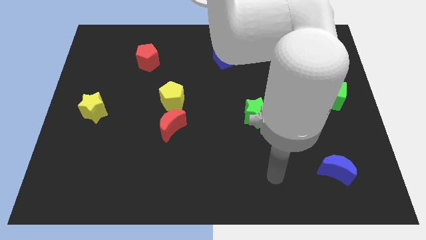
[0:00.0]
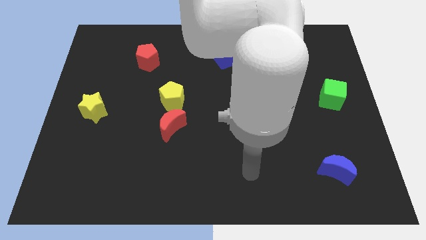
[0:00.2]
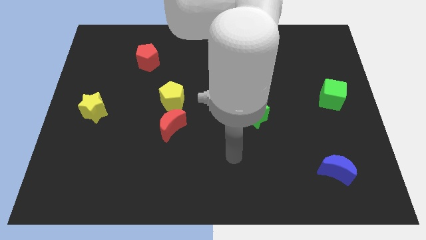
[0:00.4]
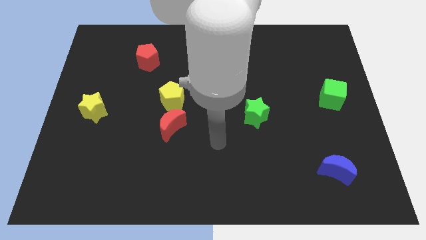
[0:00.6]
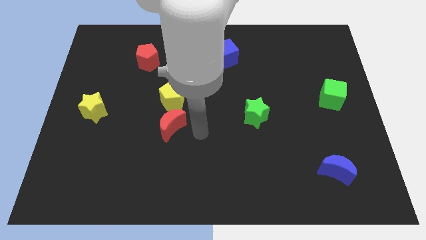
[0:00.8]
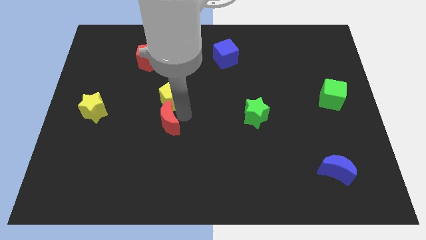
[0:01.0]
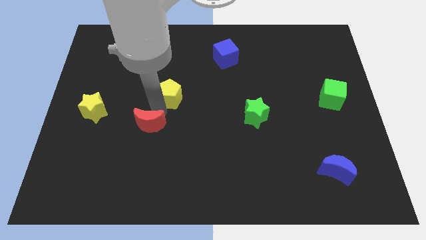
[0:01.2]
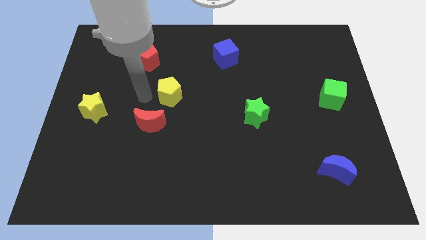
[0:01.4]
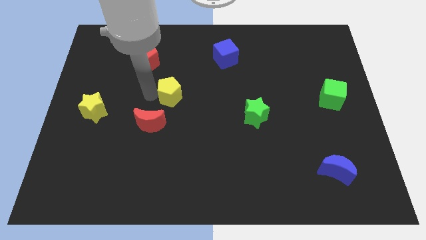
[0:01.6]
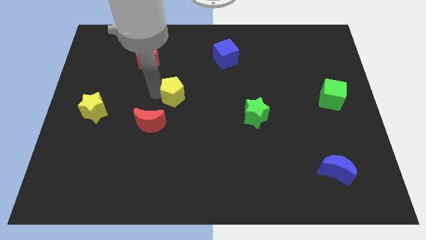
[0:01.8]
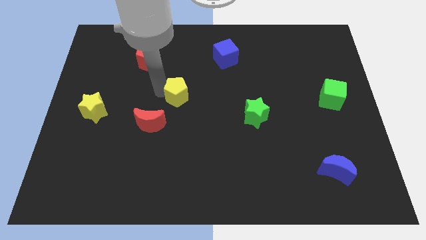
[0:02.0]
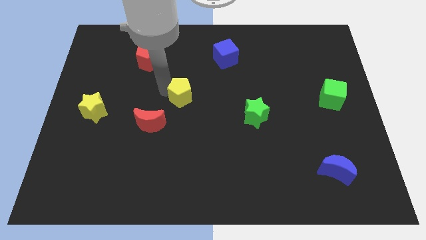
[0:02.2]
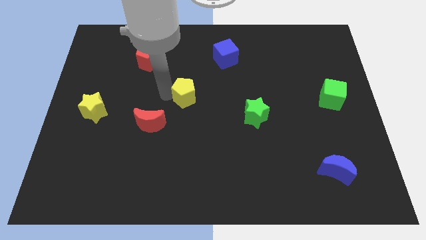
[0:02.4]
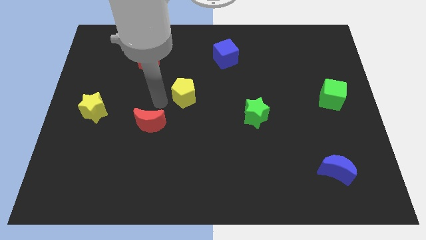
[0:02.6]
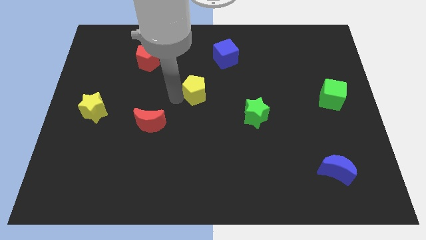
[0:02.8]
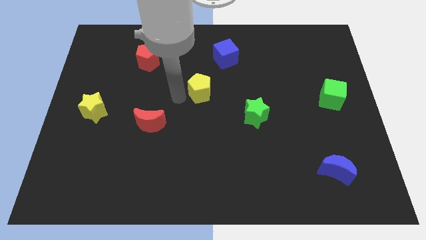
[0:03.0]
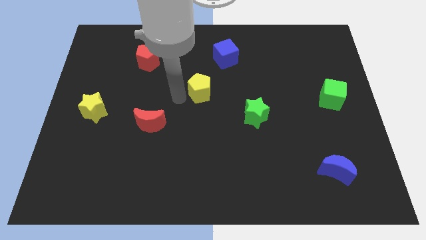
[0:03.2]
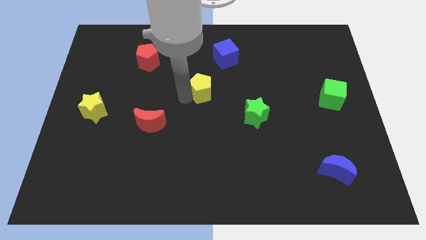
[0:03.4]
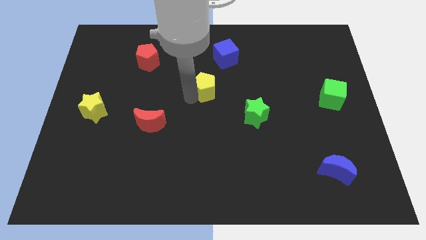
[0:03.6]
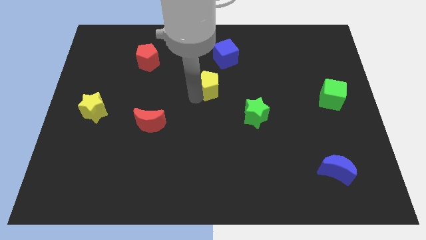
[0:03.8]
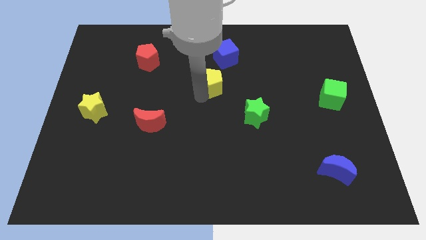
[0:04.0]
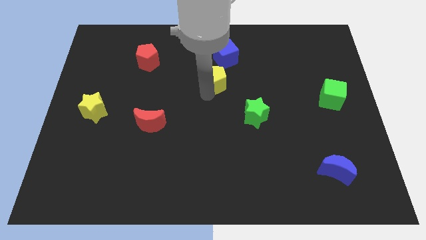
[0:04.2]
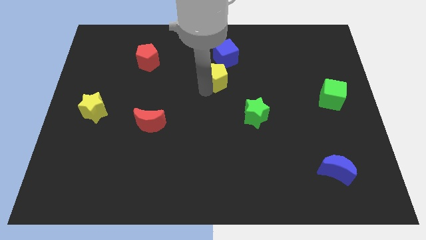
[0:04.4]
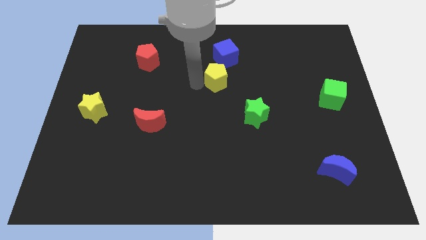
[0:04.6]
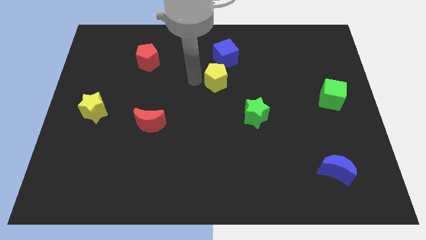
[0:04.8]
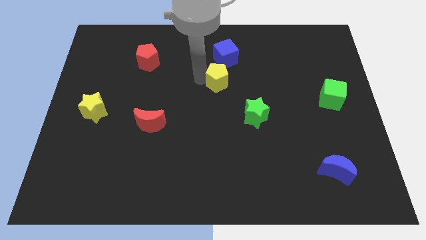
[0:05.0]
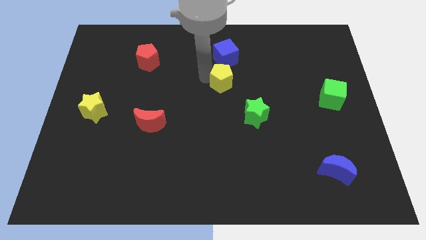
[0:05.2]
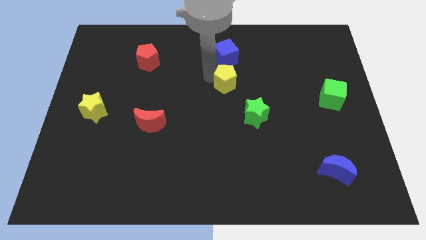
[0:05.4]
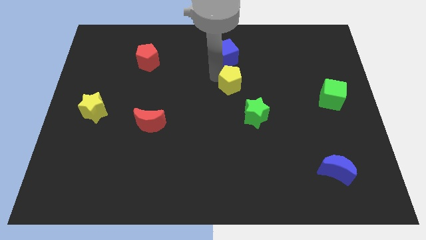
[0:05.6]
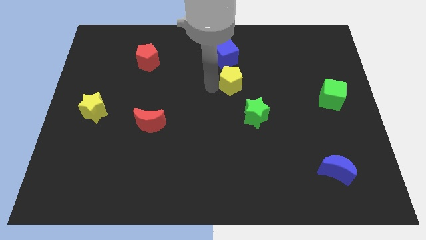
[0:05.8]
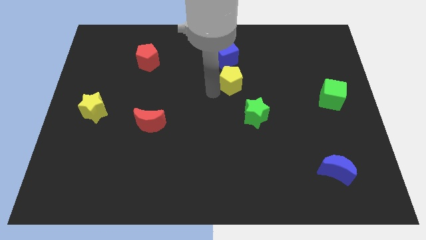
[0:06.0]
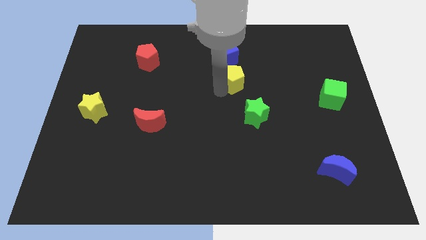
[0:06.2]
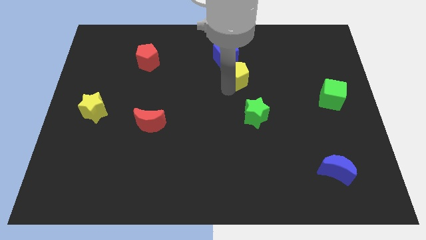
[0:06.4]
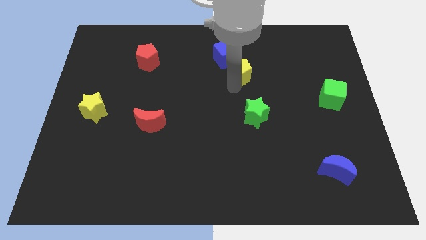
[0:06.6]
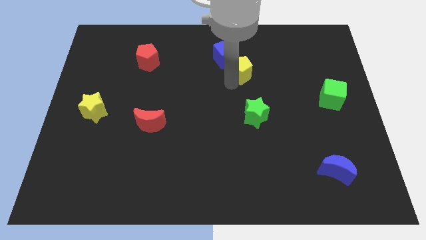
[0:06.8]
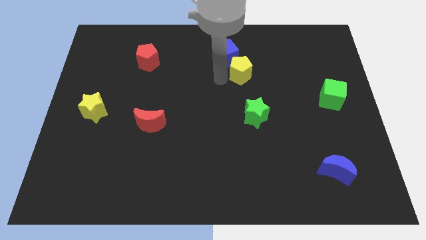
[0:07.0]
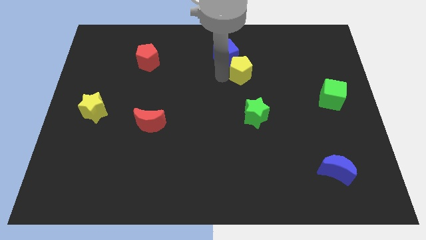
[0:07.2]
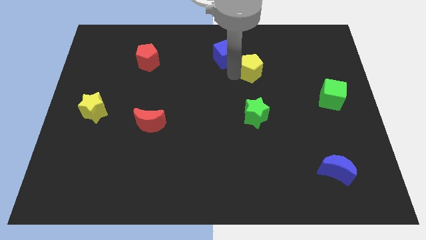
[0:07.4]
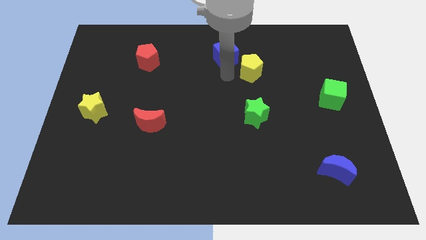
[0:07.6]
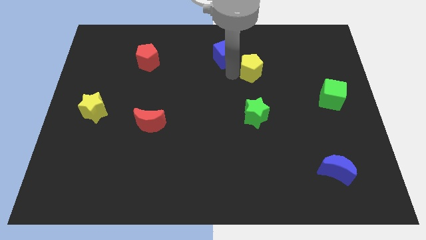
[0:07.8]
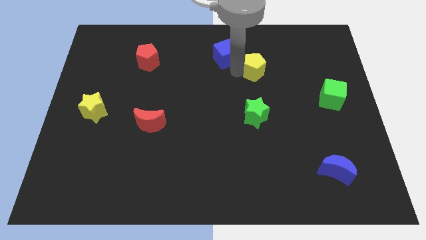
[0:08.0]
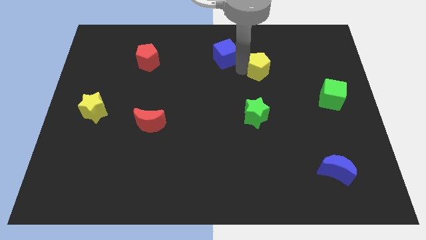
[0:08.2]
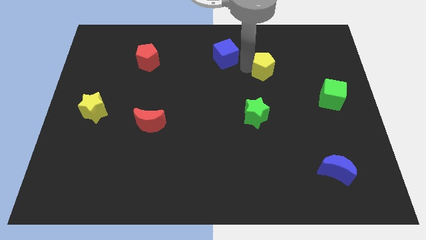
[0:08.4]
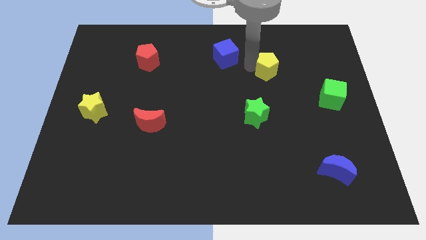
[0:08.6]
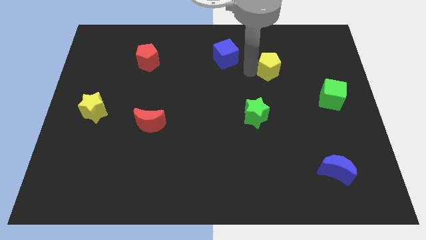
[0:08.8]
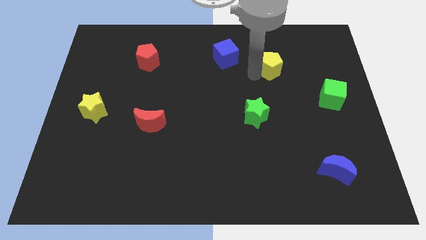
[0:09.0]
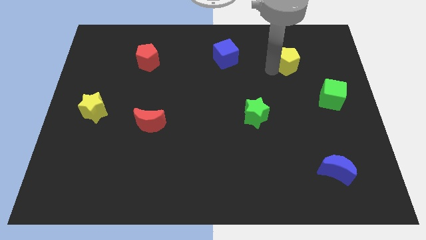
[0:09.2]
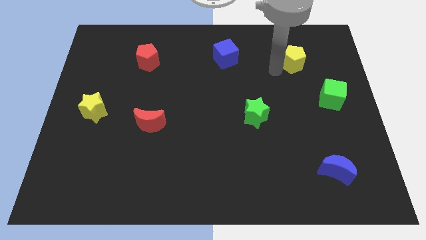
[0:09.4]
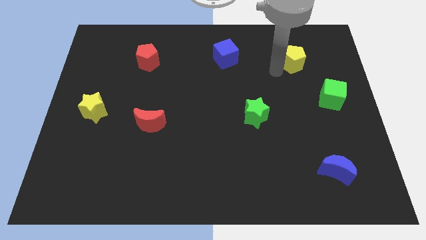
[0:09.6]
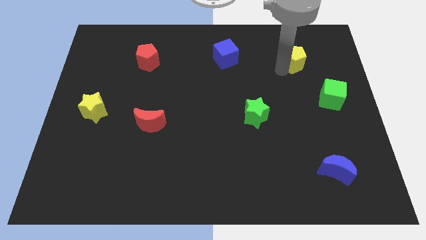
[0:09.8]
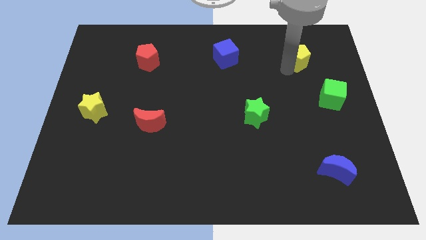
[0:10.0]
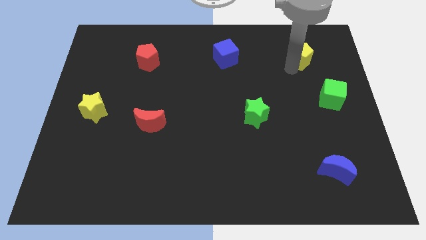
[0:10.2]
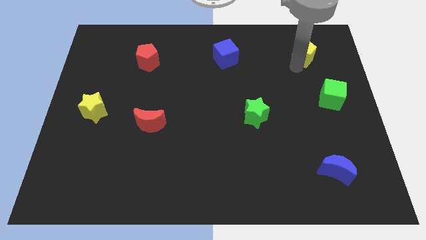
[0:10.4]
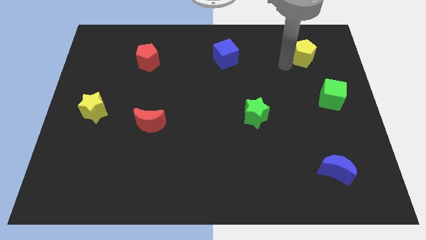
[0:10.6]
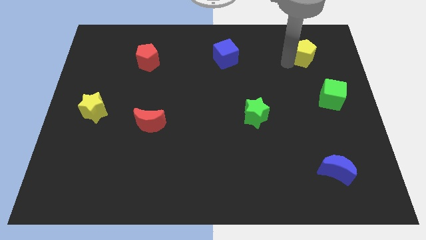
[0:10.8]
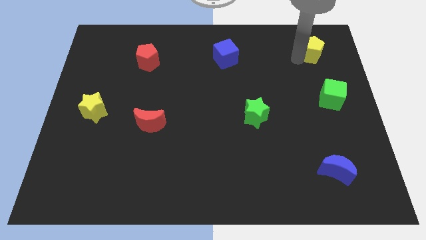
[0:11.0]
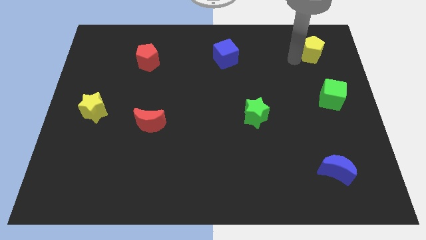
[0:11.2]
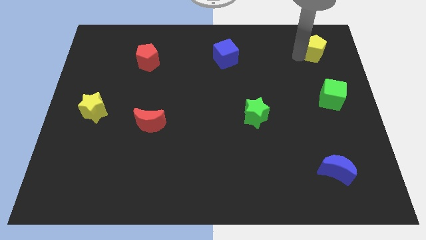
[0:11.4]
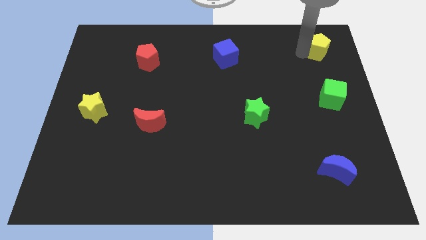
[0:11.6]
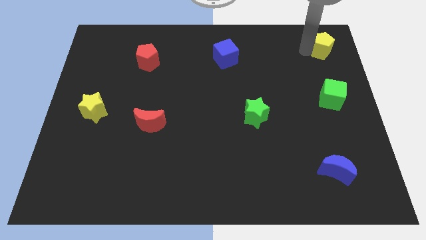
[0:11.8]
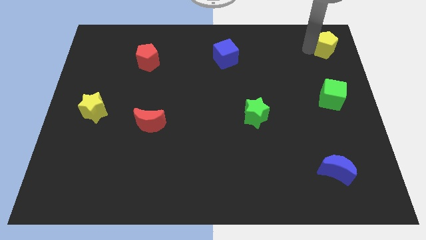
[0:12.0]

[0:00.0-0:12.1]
put the yellow pentagon to the top right of the board

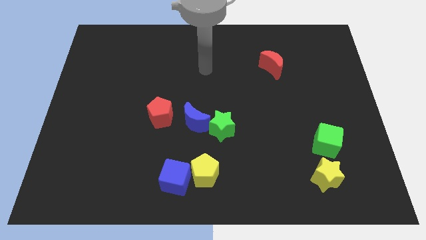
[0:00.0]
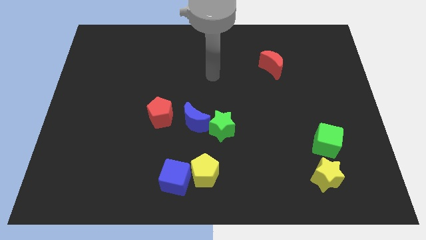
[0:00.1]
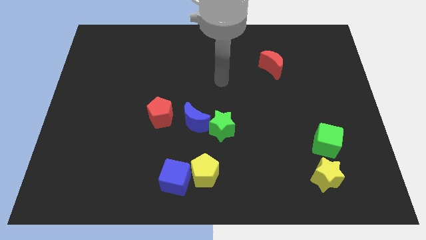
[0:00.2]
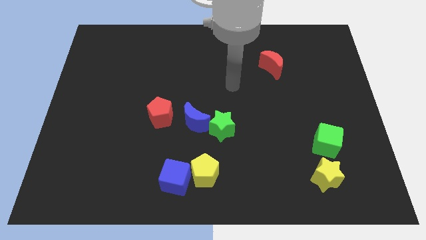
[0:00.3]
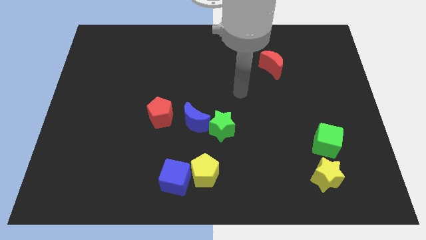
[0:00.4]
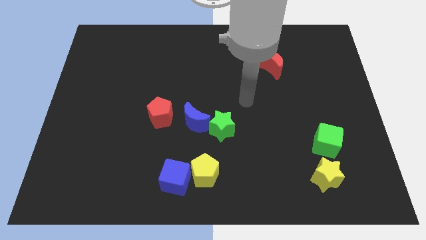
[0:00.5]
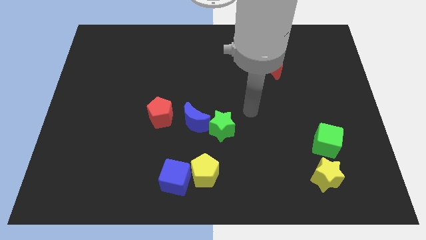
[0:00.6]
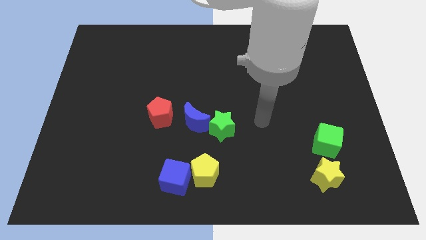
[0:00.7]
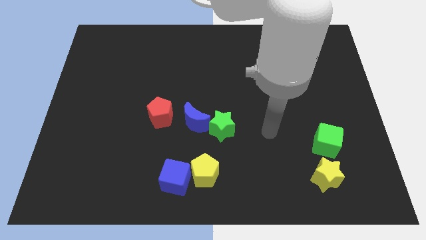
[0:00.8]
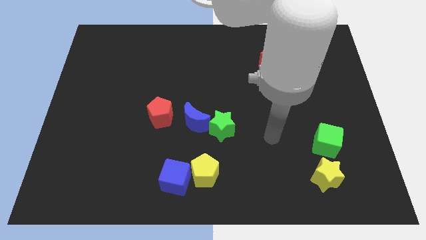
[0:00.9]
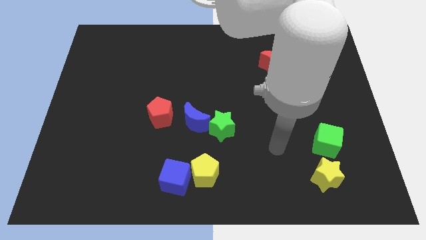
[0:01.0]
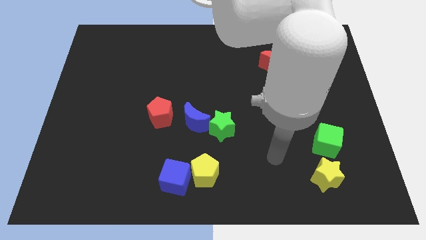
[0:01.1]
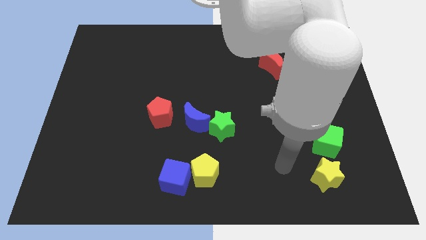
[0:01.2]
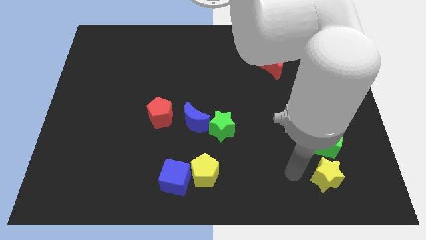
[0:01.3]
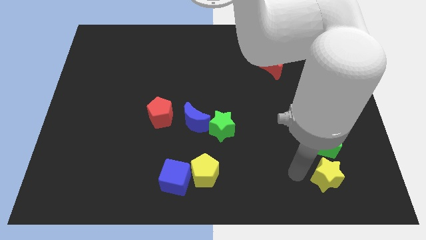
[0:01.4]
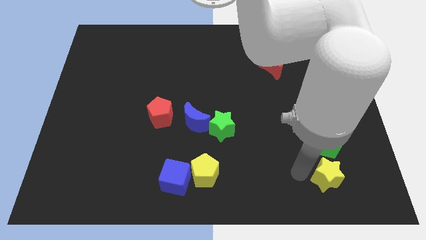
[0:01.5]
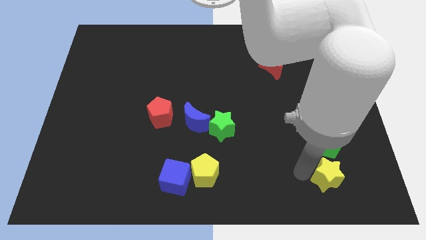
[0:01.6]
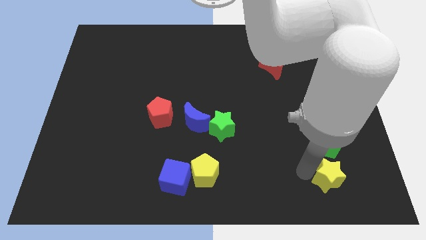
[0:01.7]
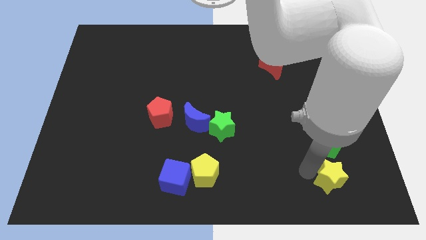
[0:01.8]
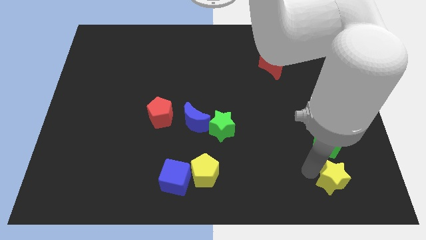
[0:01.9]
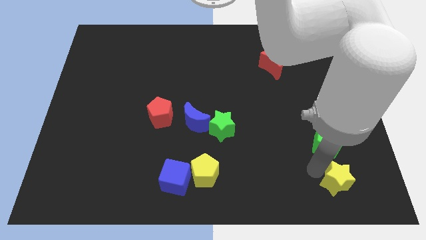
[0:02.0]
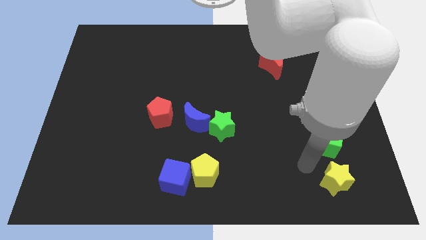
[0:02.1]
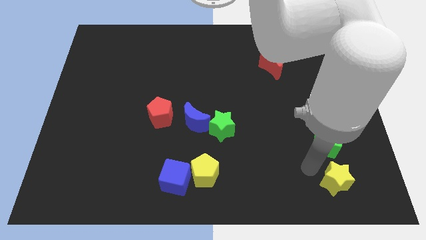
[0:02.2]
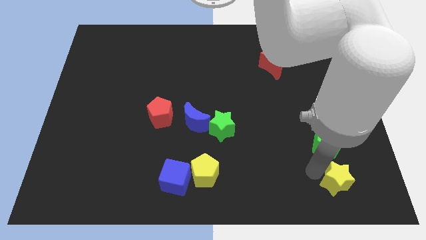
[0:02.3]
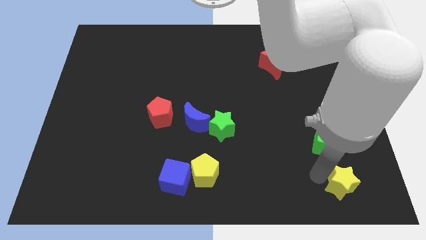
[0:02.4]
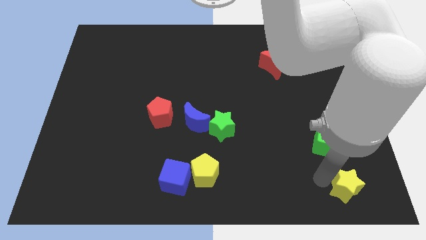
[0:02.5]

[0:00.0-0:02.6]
move the yellow star to the lower right corner
